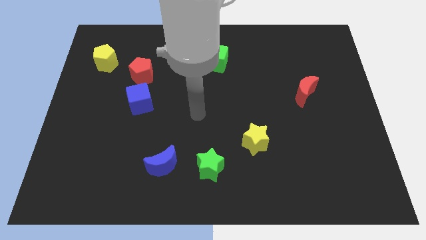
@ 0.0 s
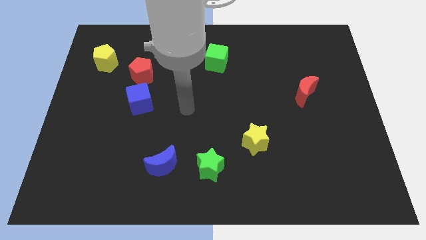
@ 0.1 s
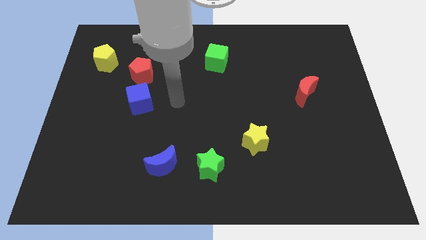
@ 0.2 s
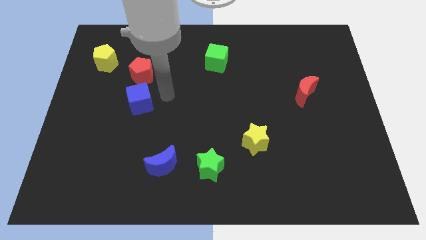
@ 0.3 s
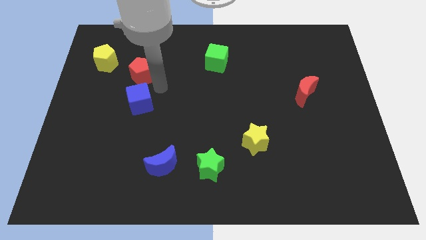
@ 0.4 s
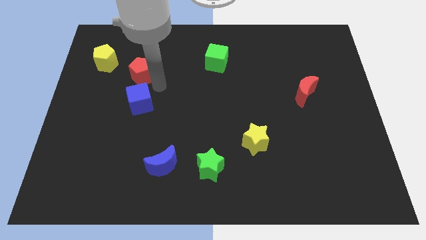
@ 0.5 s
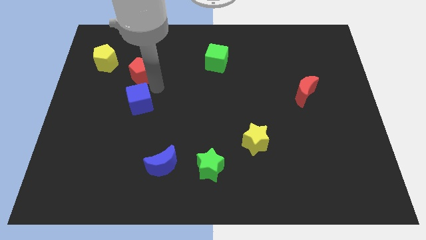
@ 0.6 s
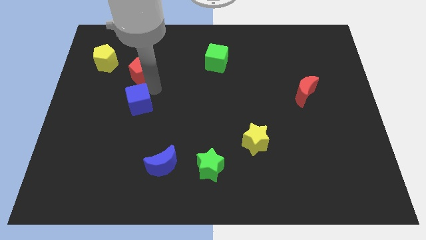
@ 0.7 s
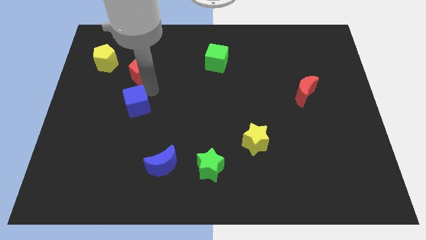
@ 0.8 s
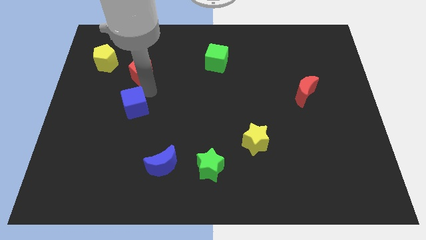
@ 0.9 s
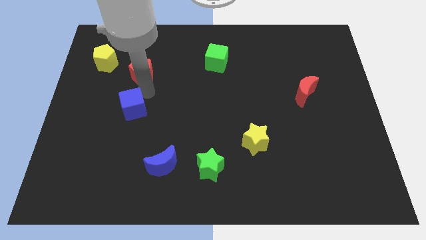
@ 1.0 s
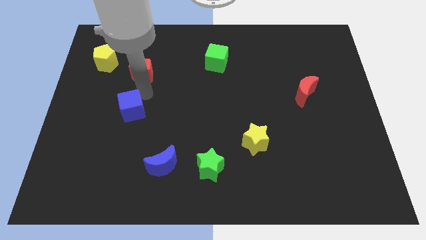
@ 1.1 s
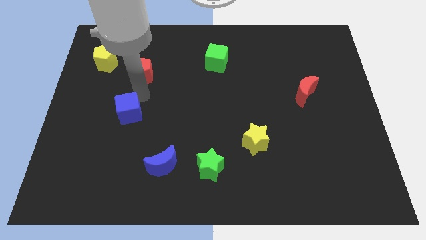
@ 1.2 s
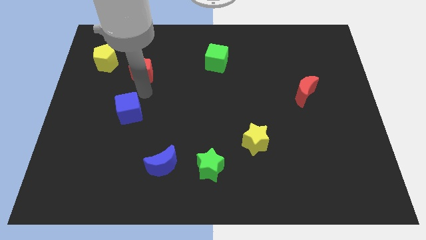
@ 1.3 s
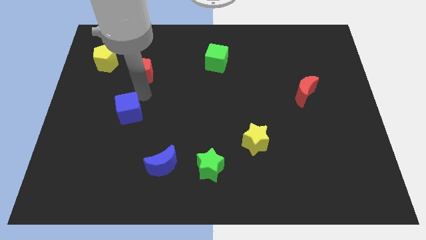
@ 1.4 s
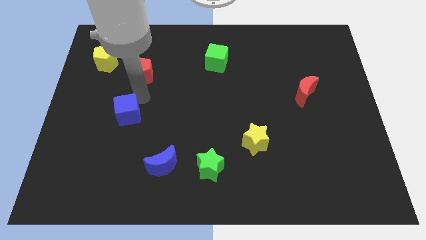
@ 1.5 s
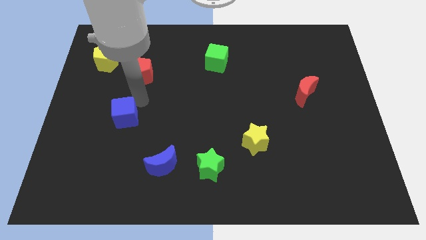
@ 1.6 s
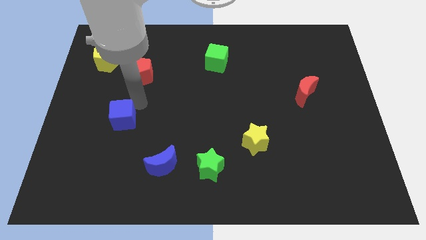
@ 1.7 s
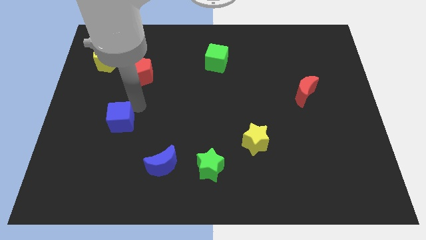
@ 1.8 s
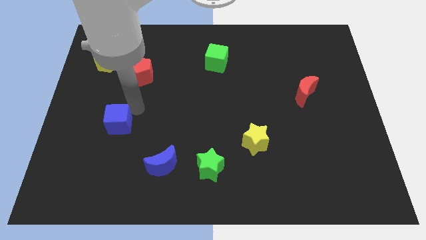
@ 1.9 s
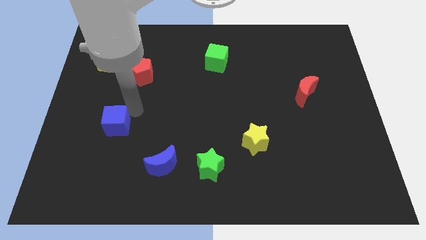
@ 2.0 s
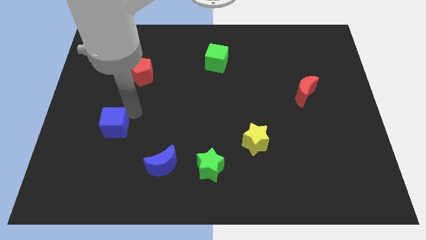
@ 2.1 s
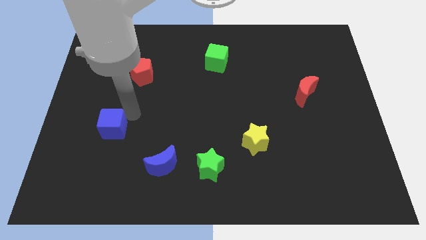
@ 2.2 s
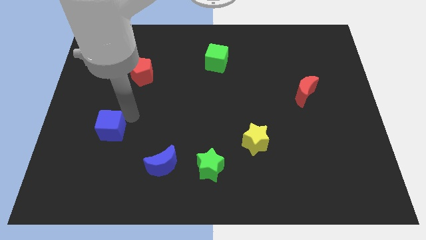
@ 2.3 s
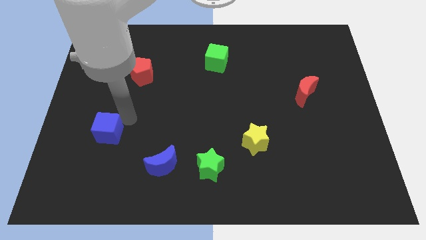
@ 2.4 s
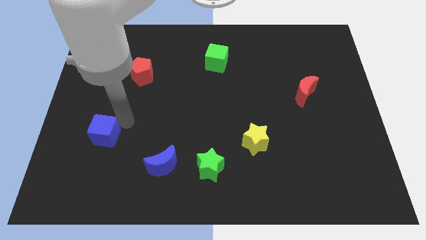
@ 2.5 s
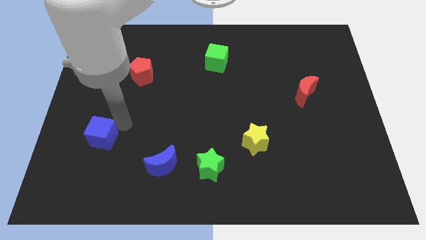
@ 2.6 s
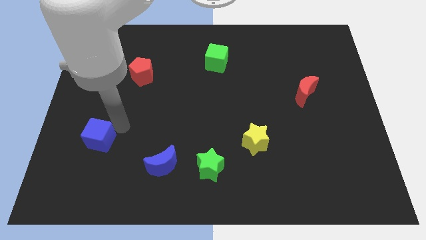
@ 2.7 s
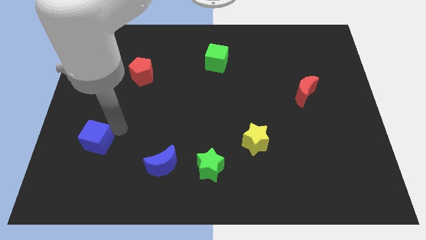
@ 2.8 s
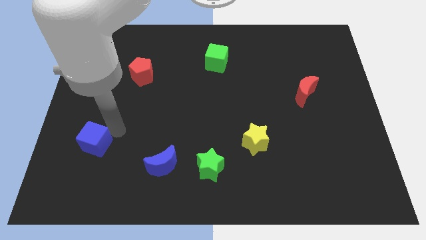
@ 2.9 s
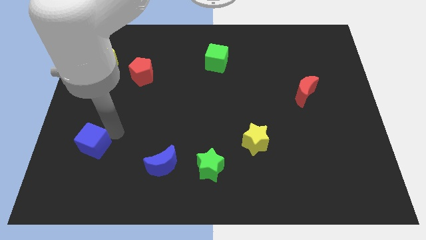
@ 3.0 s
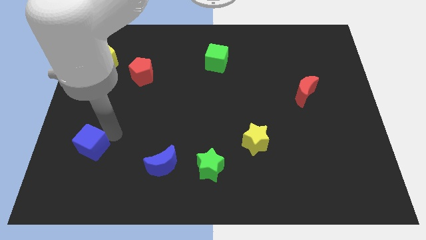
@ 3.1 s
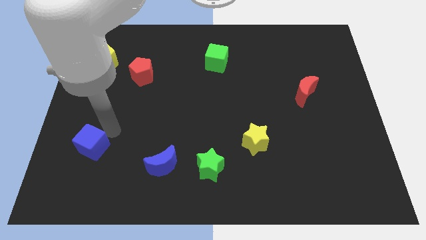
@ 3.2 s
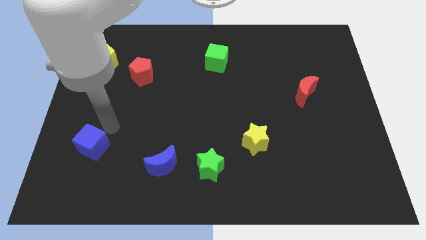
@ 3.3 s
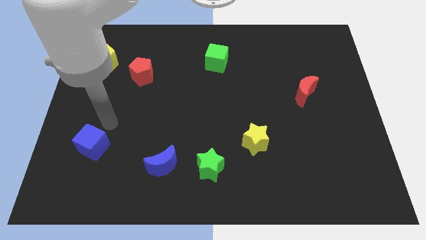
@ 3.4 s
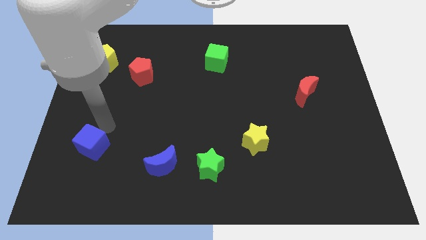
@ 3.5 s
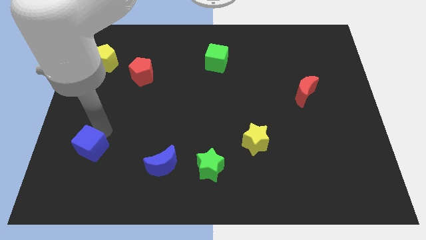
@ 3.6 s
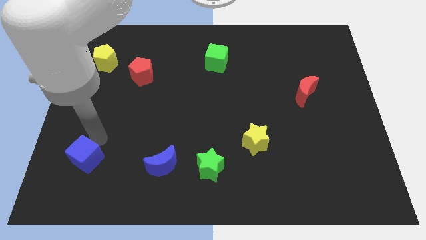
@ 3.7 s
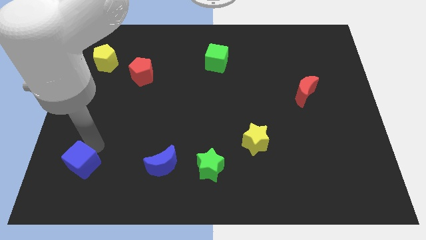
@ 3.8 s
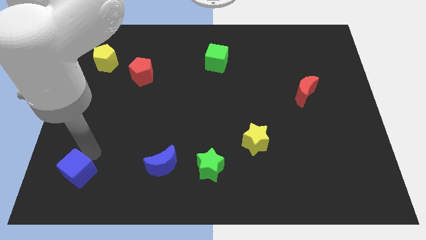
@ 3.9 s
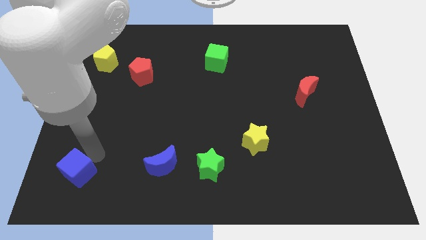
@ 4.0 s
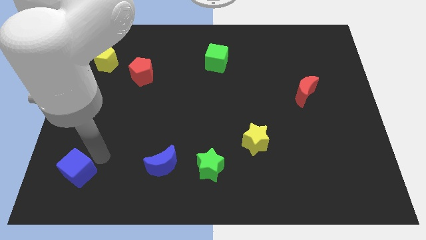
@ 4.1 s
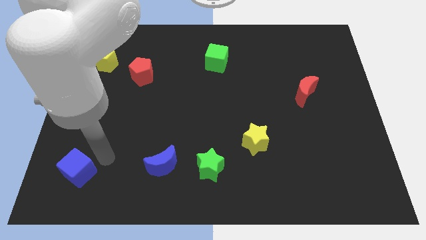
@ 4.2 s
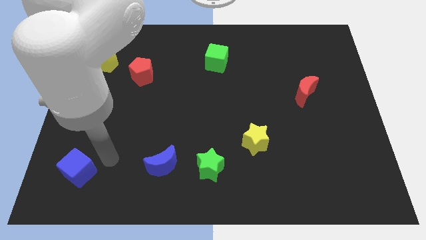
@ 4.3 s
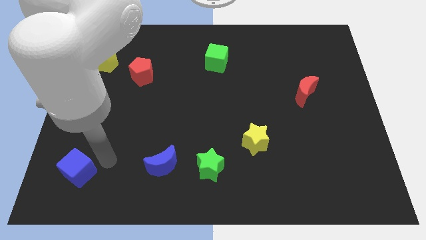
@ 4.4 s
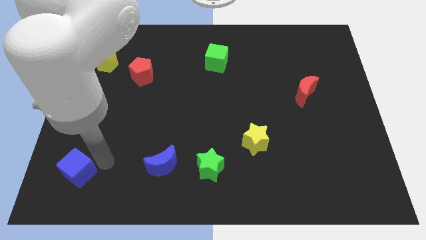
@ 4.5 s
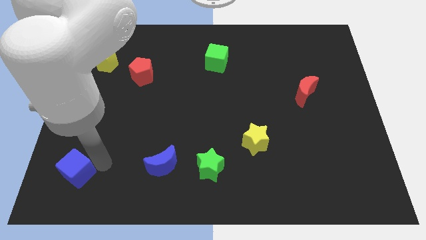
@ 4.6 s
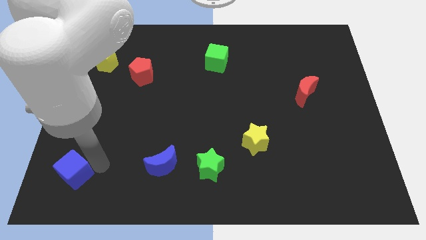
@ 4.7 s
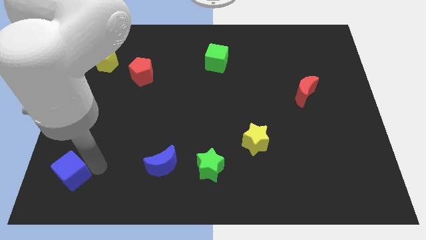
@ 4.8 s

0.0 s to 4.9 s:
slide the blue cube to the bottom left of the board

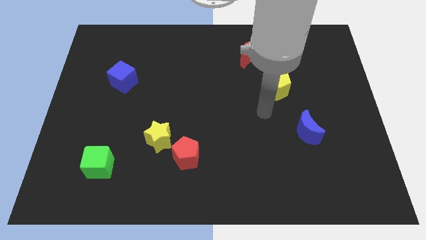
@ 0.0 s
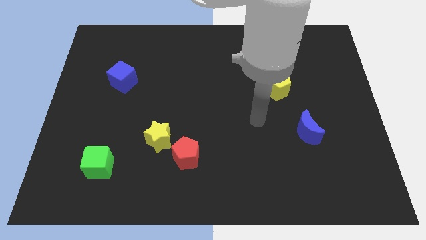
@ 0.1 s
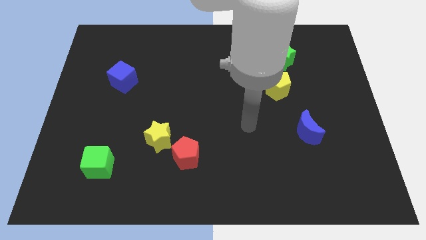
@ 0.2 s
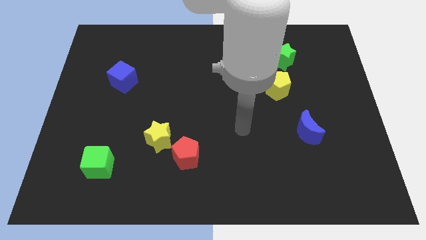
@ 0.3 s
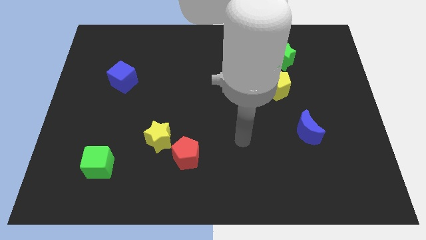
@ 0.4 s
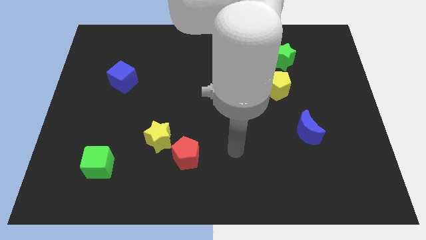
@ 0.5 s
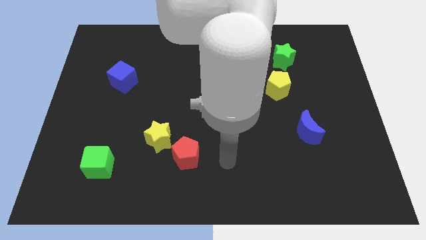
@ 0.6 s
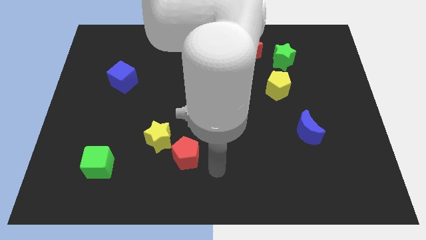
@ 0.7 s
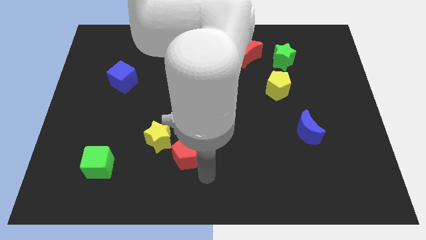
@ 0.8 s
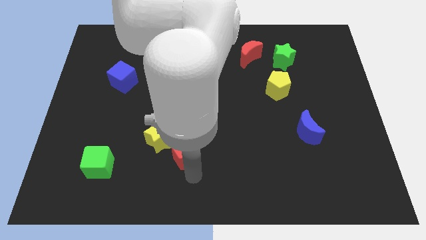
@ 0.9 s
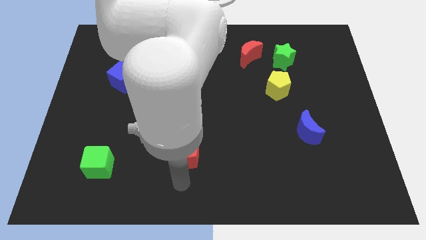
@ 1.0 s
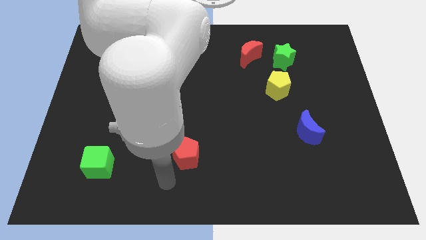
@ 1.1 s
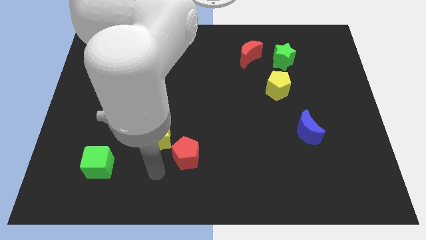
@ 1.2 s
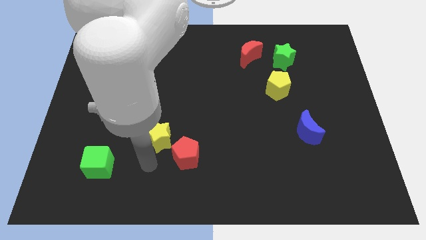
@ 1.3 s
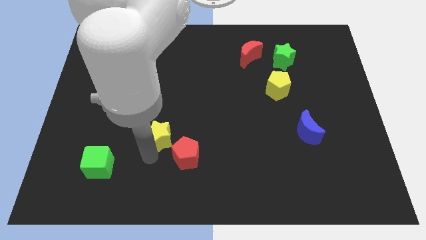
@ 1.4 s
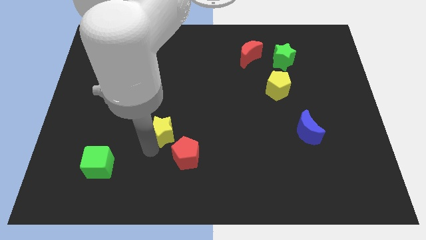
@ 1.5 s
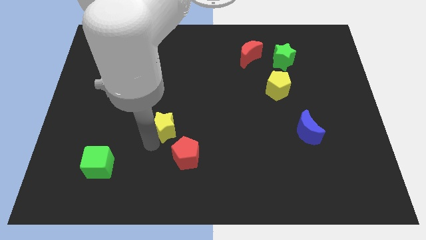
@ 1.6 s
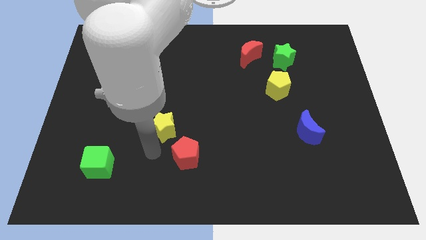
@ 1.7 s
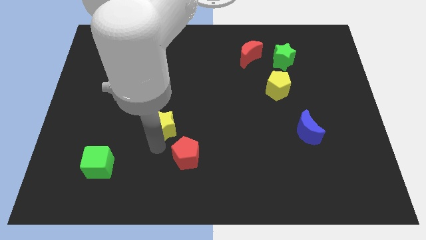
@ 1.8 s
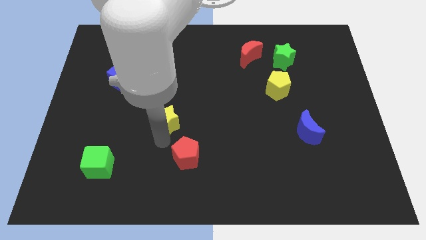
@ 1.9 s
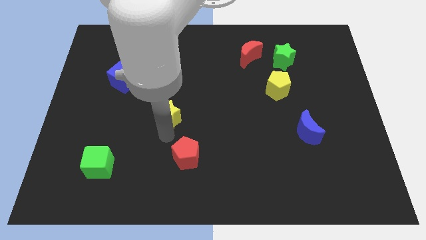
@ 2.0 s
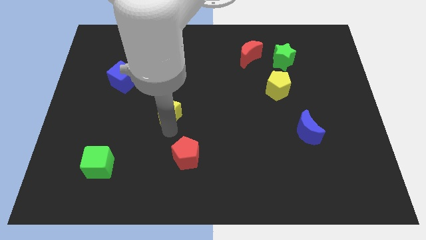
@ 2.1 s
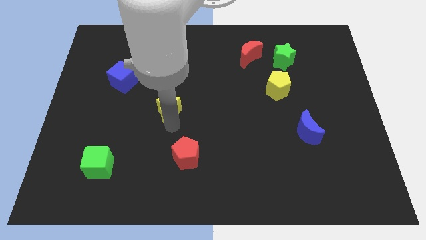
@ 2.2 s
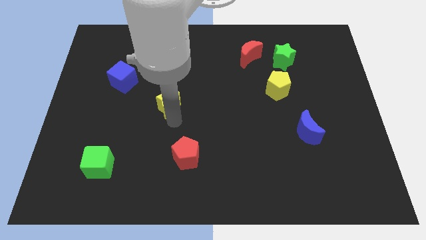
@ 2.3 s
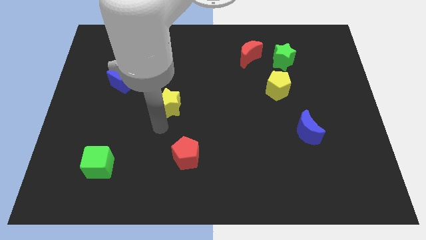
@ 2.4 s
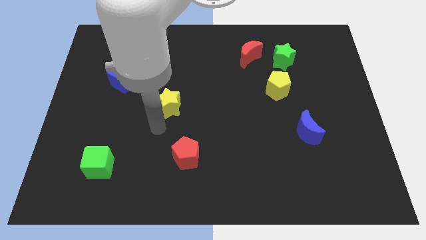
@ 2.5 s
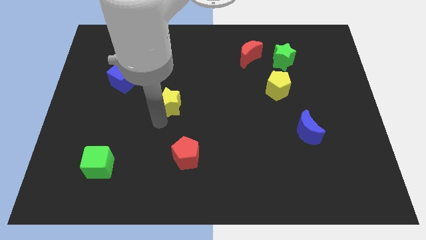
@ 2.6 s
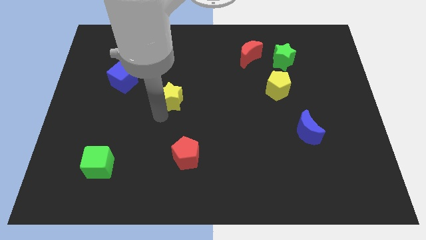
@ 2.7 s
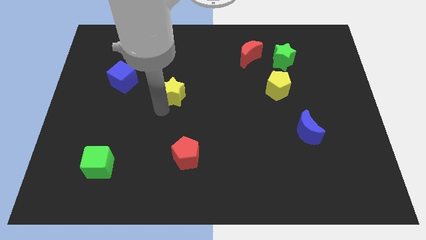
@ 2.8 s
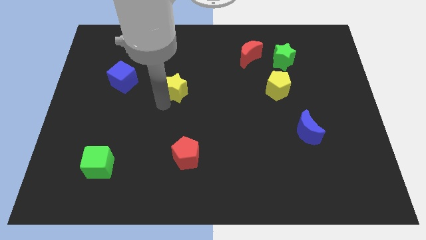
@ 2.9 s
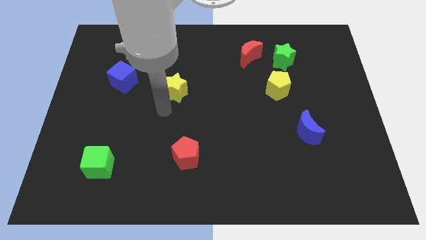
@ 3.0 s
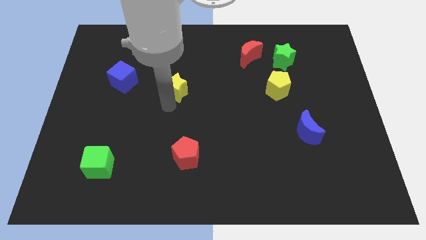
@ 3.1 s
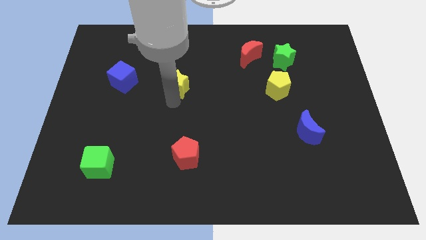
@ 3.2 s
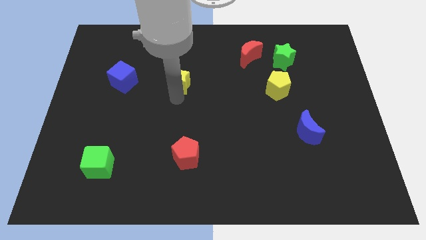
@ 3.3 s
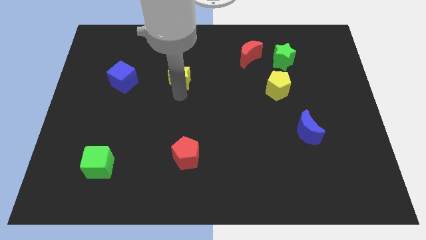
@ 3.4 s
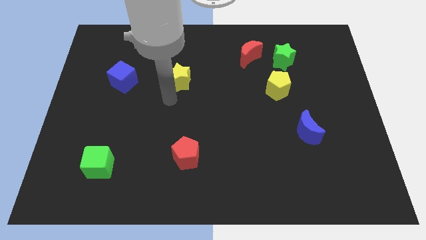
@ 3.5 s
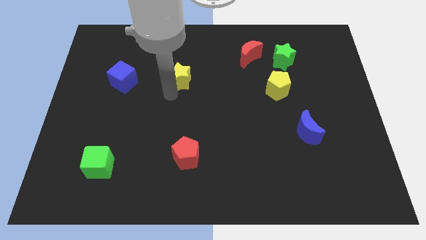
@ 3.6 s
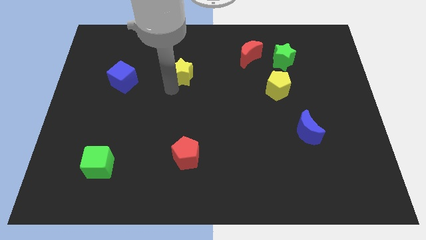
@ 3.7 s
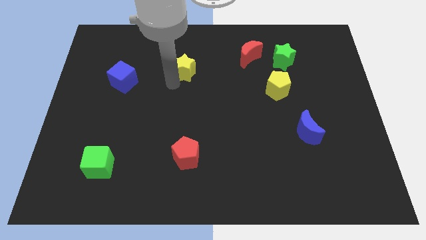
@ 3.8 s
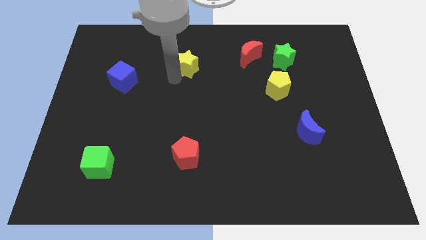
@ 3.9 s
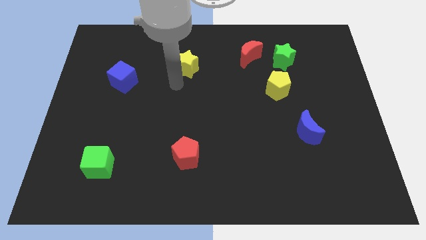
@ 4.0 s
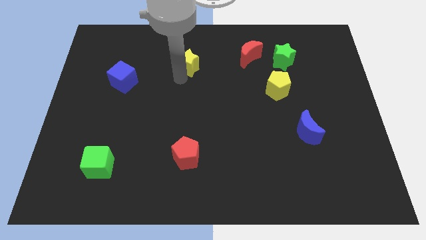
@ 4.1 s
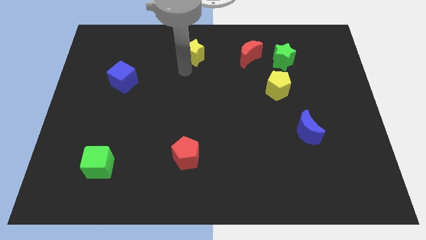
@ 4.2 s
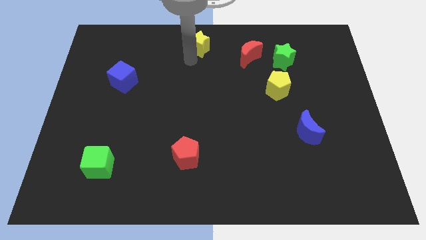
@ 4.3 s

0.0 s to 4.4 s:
slide the yellow star to the top
